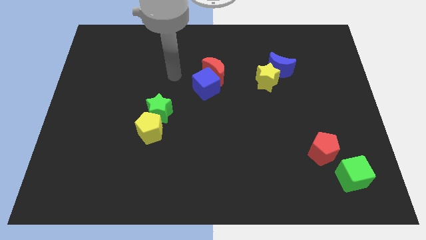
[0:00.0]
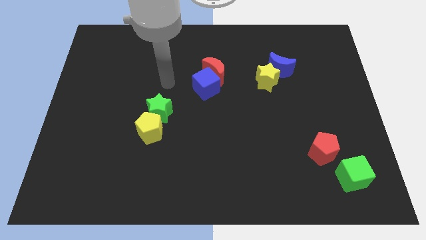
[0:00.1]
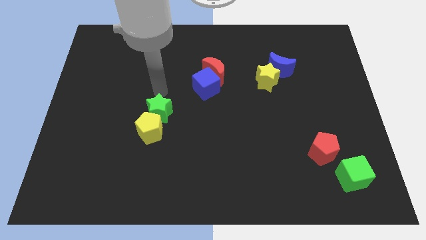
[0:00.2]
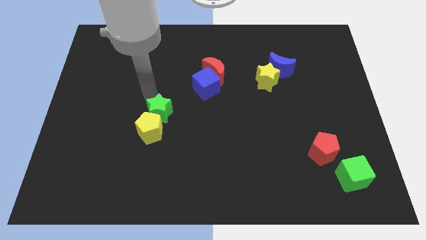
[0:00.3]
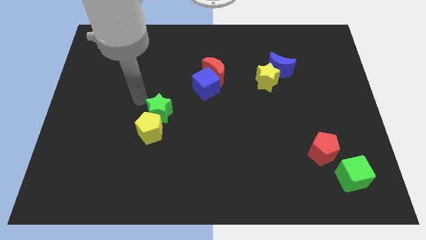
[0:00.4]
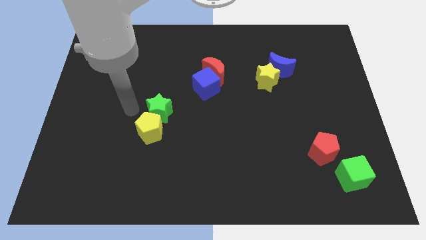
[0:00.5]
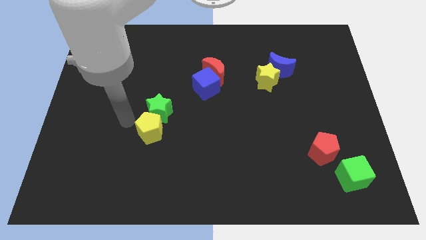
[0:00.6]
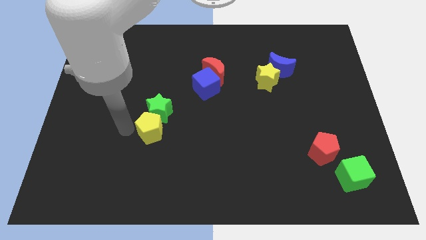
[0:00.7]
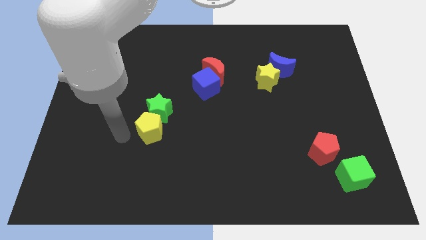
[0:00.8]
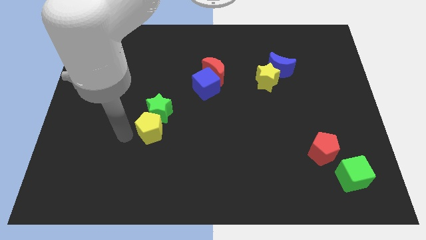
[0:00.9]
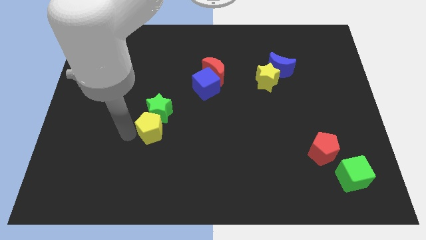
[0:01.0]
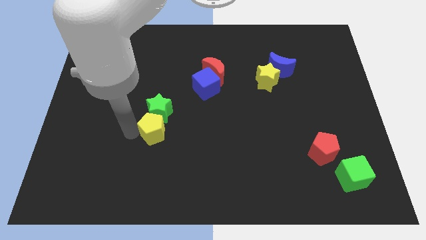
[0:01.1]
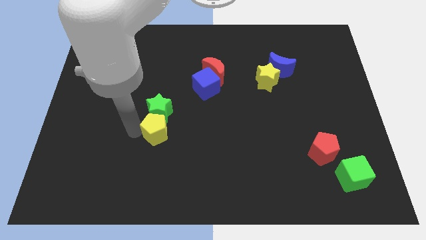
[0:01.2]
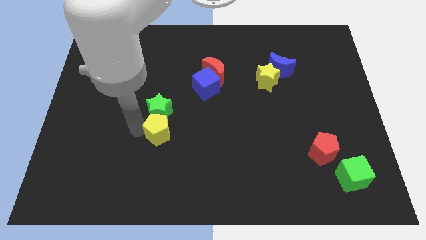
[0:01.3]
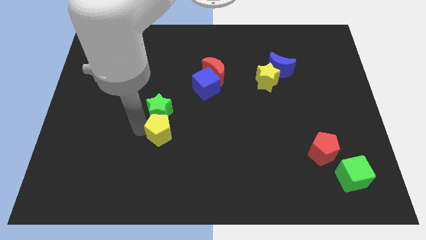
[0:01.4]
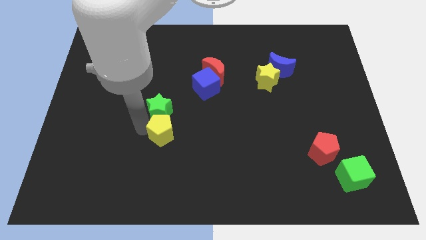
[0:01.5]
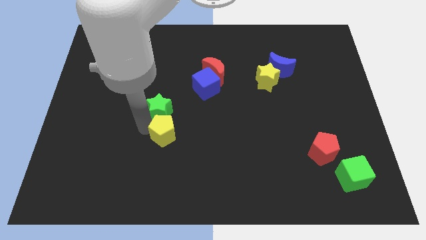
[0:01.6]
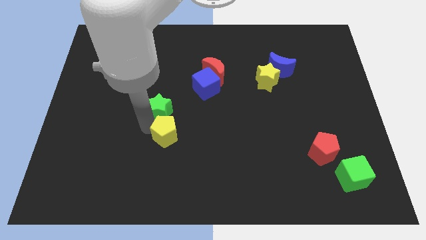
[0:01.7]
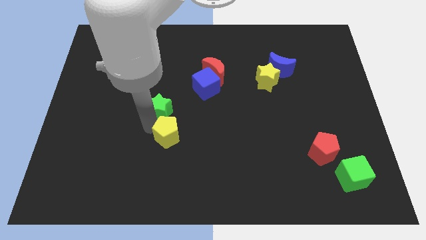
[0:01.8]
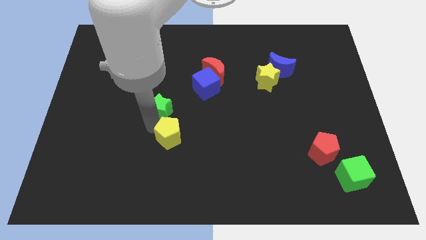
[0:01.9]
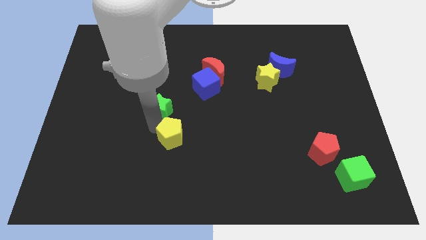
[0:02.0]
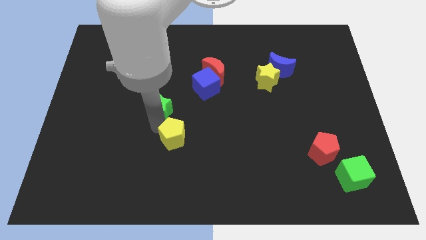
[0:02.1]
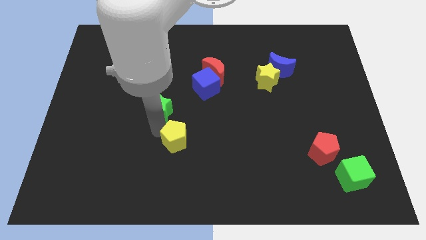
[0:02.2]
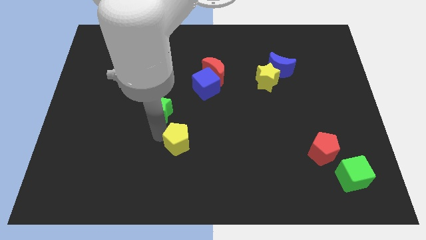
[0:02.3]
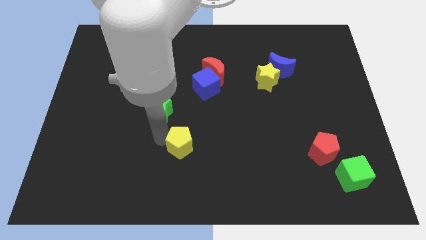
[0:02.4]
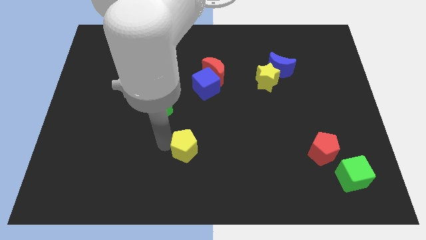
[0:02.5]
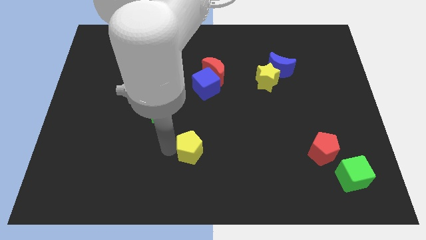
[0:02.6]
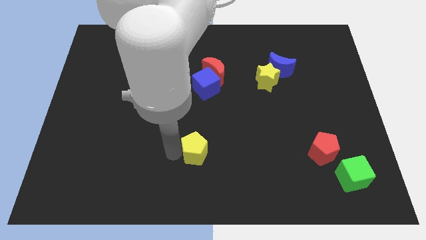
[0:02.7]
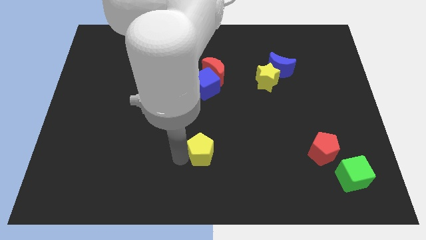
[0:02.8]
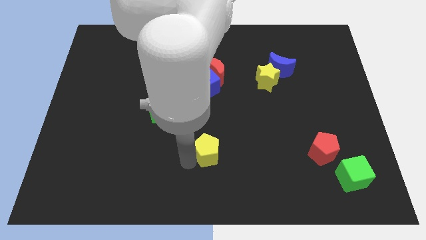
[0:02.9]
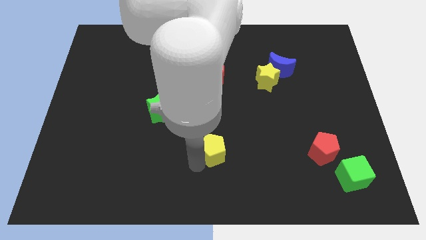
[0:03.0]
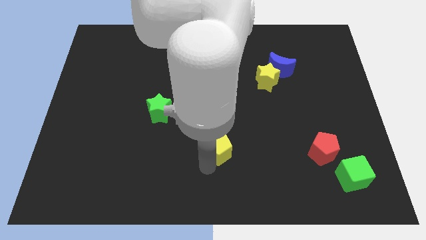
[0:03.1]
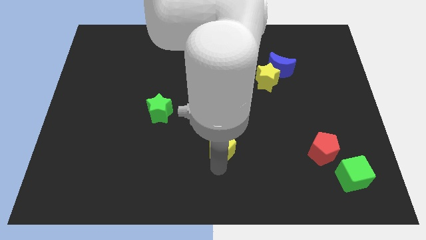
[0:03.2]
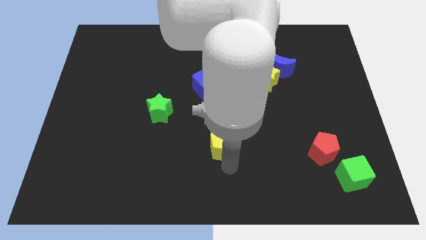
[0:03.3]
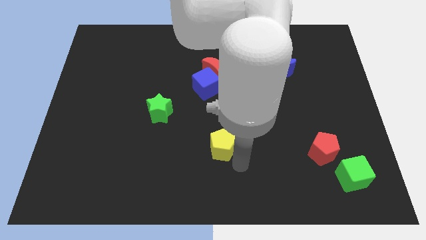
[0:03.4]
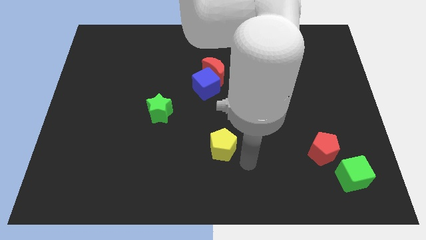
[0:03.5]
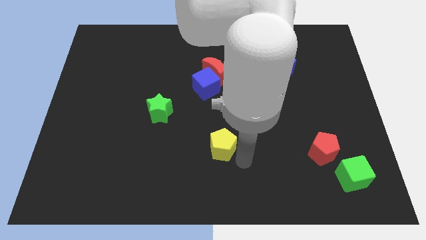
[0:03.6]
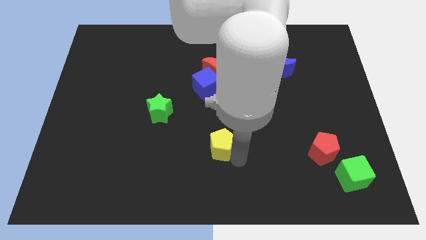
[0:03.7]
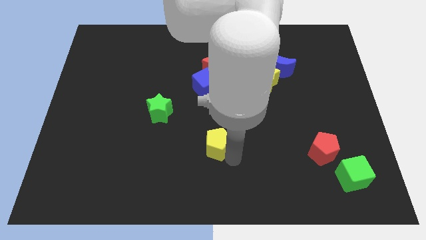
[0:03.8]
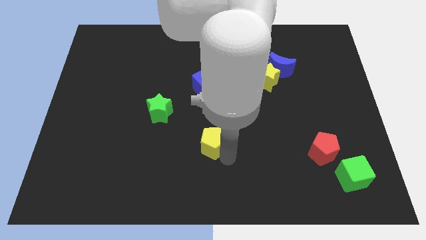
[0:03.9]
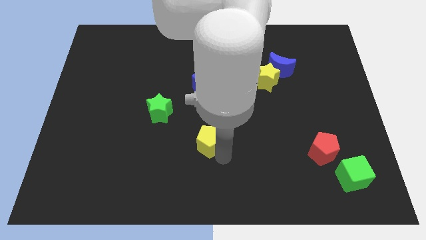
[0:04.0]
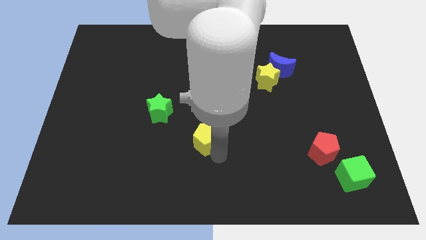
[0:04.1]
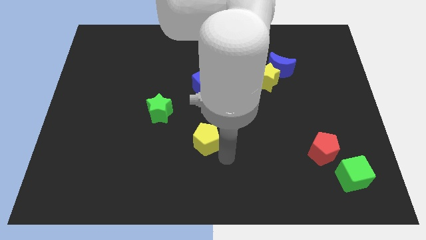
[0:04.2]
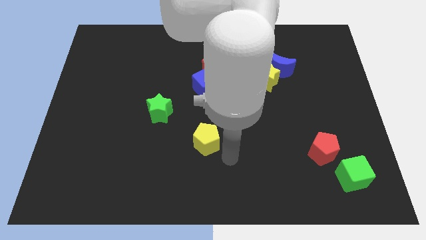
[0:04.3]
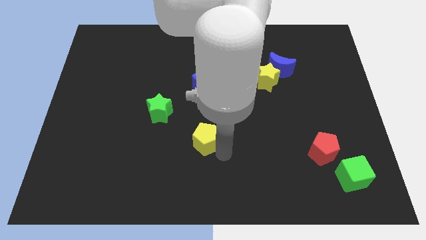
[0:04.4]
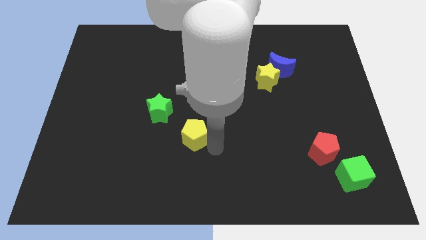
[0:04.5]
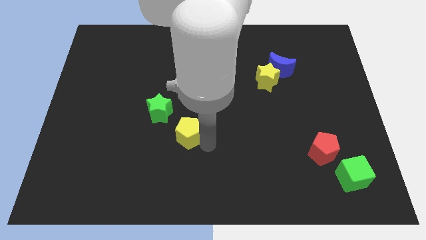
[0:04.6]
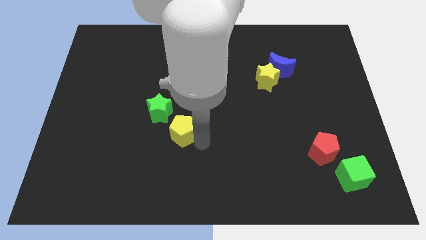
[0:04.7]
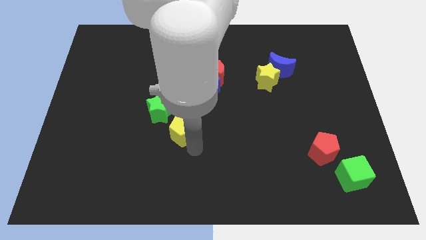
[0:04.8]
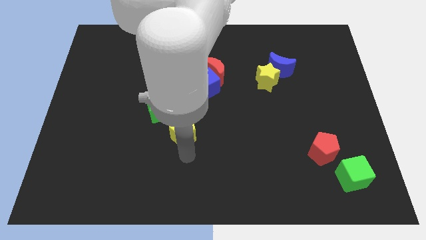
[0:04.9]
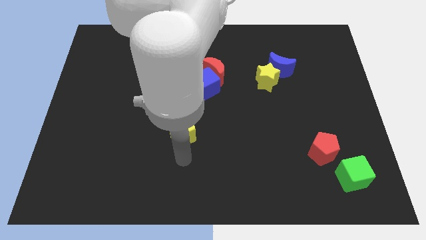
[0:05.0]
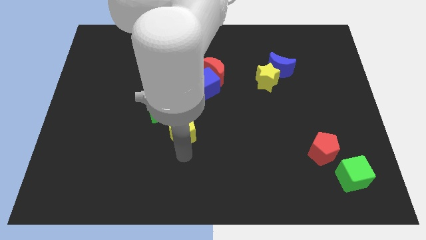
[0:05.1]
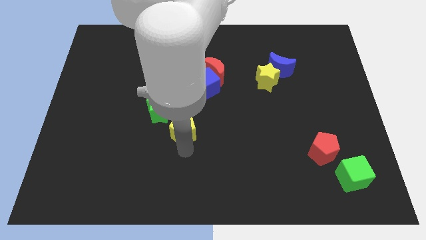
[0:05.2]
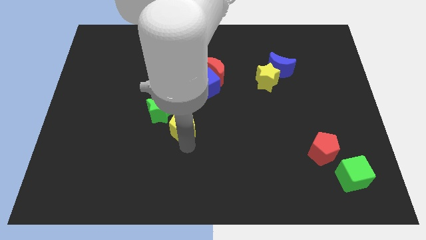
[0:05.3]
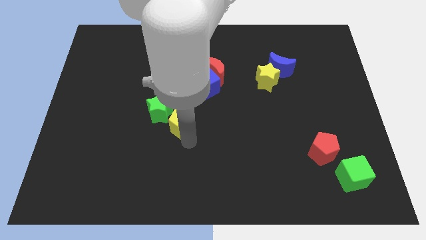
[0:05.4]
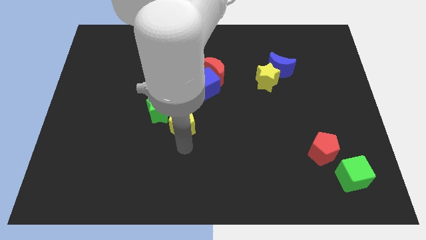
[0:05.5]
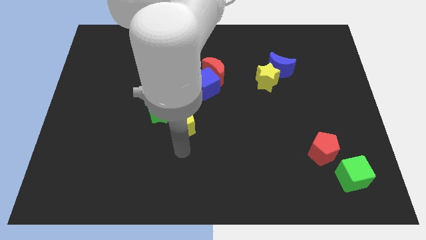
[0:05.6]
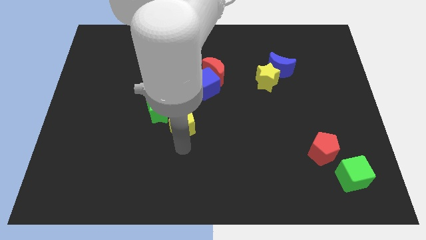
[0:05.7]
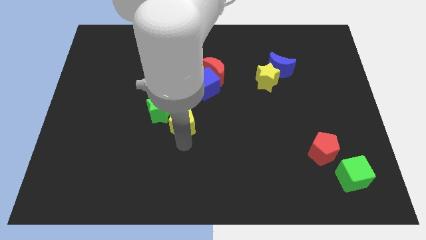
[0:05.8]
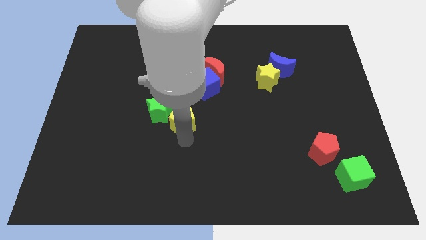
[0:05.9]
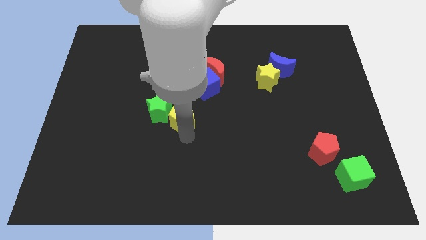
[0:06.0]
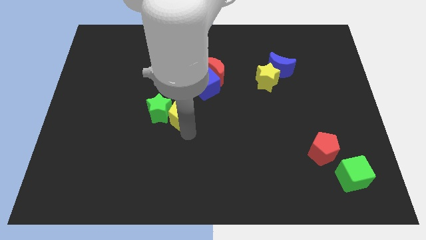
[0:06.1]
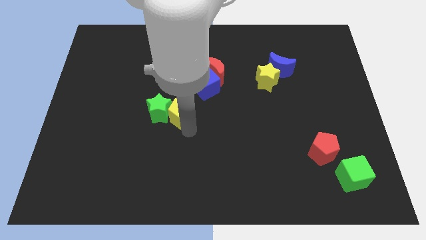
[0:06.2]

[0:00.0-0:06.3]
put the yellow pentagon diagonally up and to the right of the green star
